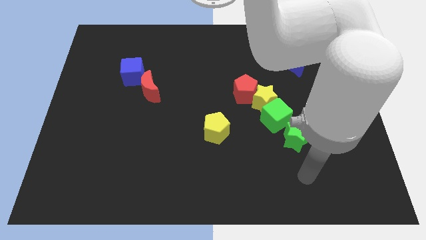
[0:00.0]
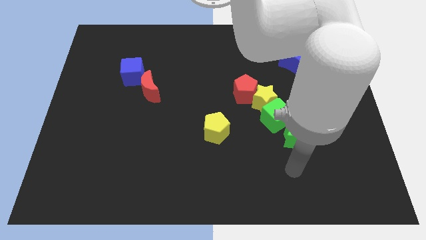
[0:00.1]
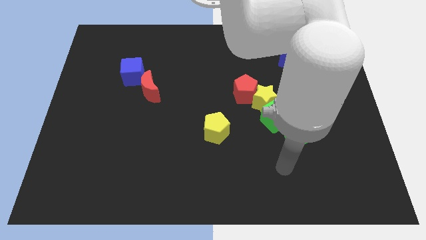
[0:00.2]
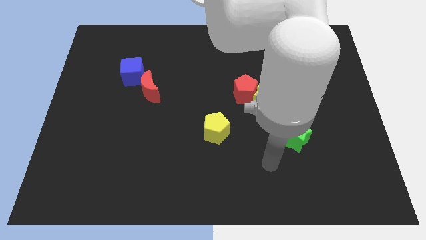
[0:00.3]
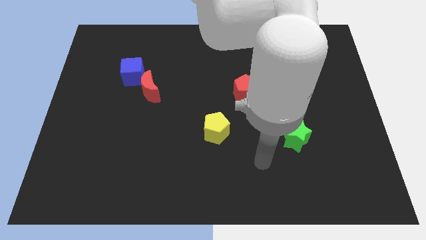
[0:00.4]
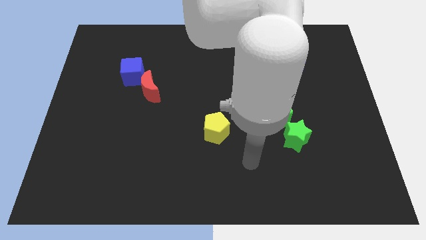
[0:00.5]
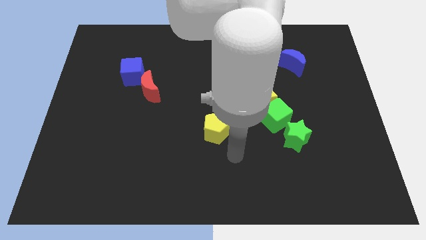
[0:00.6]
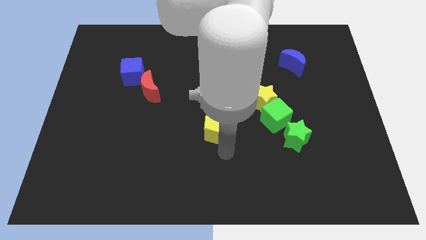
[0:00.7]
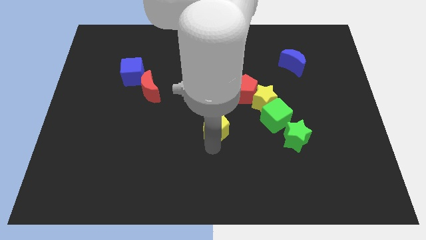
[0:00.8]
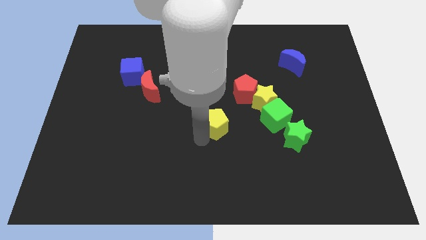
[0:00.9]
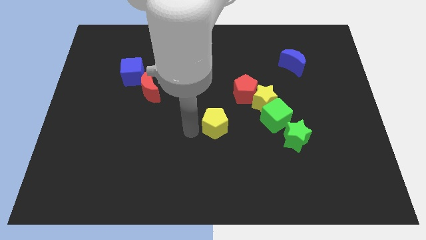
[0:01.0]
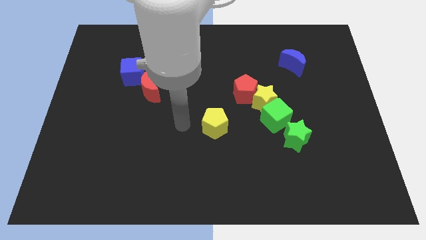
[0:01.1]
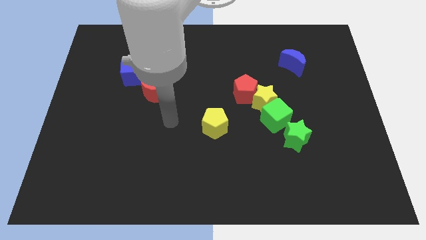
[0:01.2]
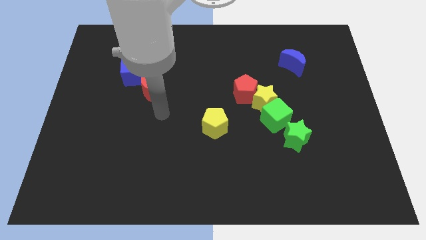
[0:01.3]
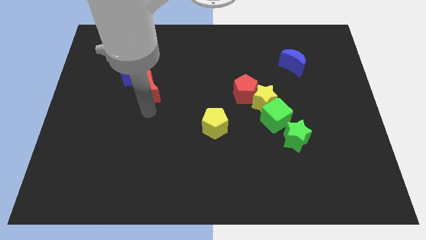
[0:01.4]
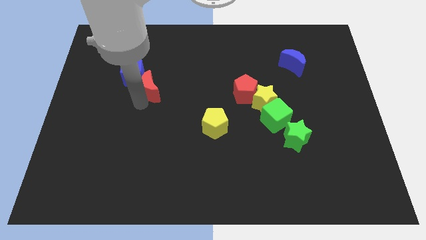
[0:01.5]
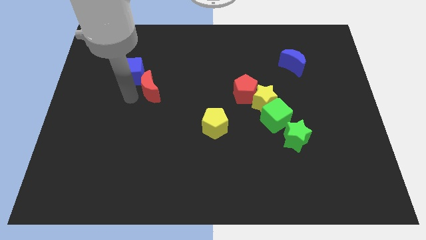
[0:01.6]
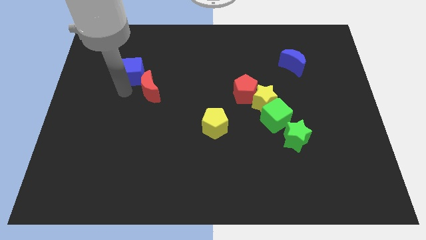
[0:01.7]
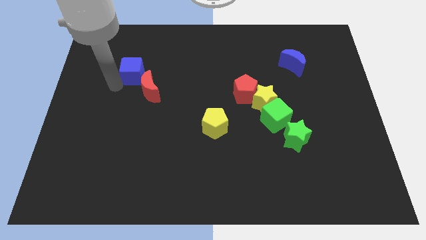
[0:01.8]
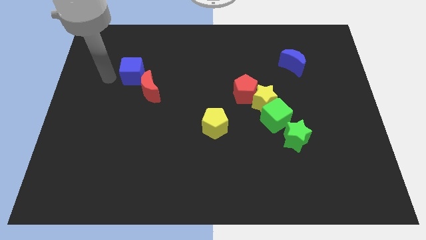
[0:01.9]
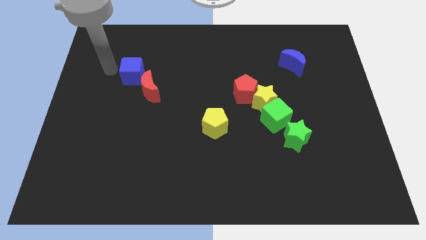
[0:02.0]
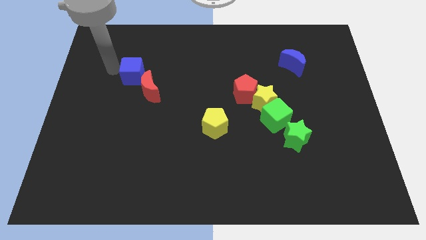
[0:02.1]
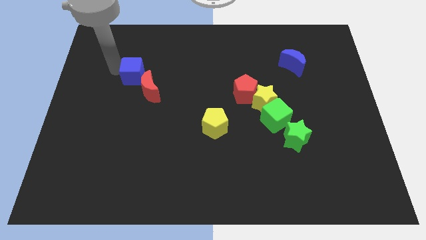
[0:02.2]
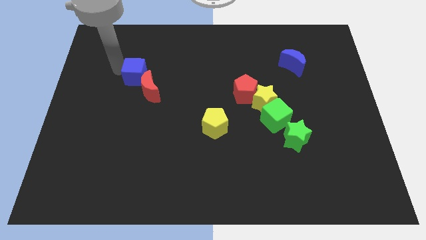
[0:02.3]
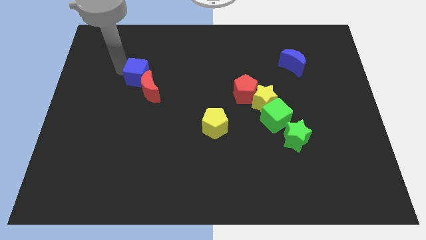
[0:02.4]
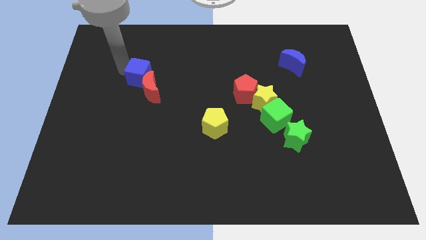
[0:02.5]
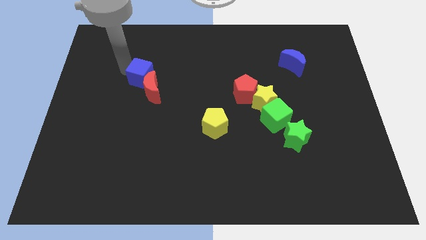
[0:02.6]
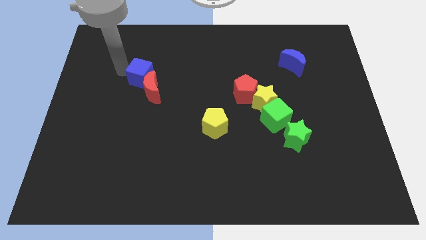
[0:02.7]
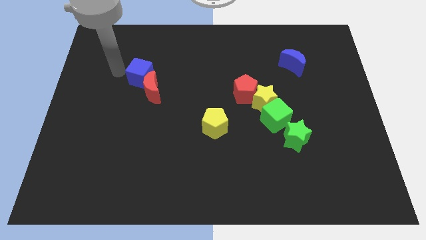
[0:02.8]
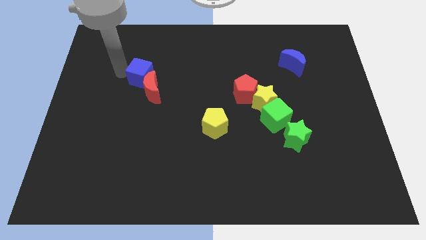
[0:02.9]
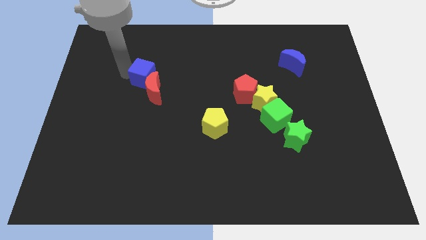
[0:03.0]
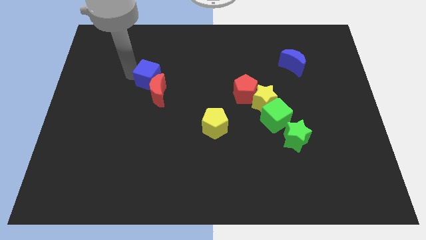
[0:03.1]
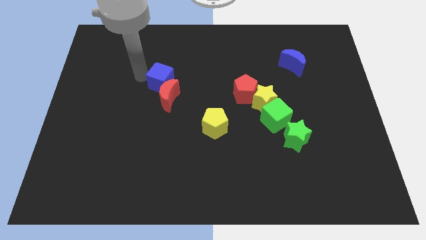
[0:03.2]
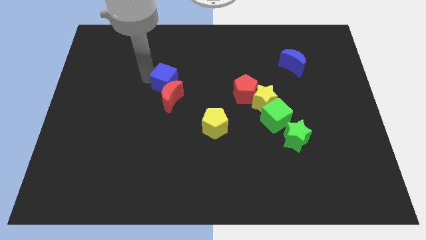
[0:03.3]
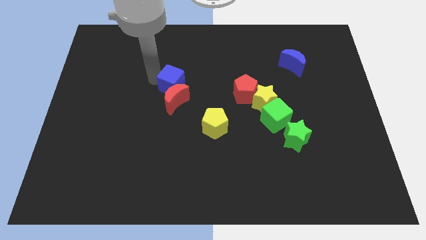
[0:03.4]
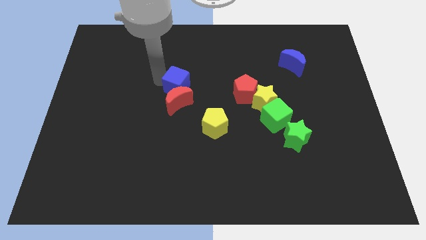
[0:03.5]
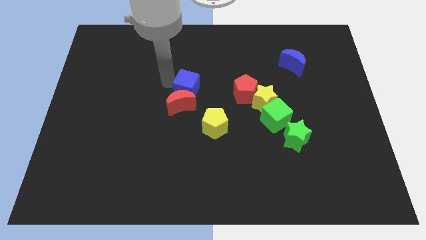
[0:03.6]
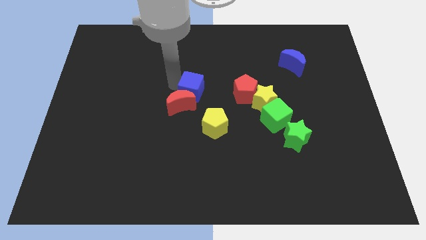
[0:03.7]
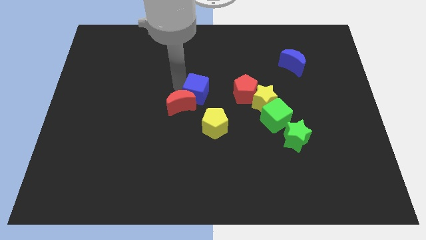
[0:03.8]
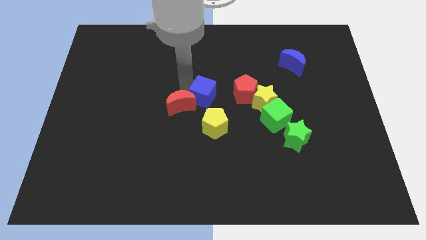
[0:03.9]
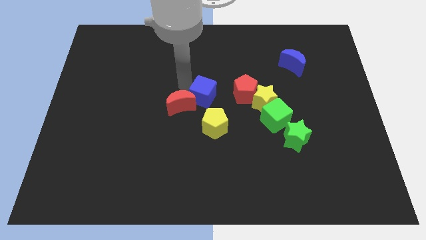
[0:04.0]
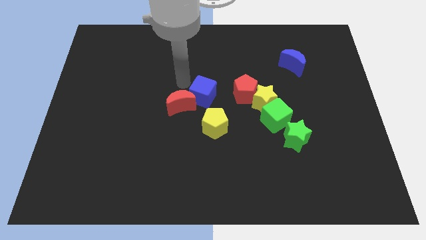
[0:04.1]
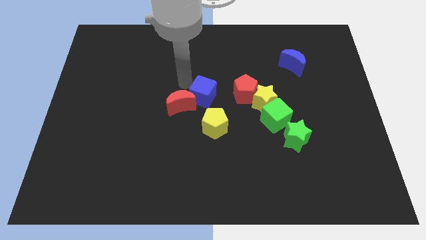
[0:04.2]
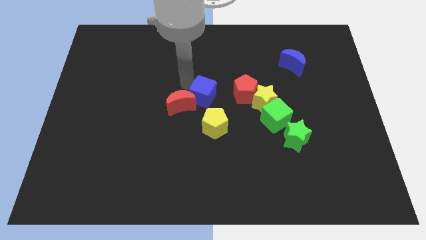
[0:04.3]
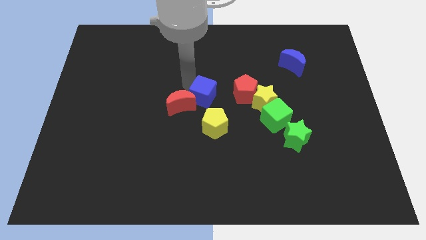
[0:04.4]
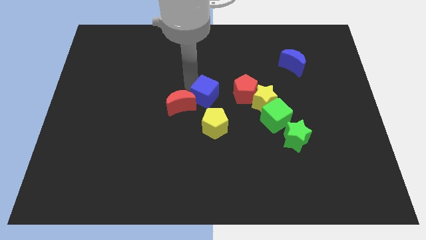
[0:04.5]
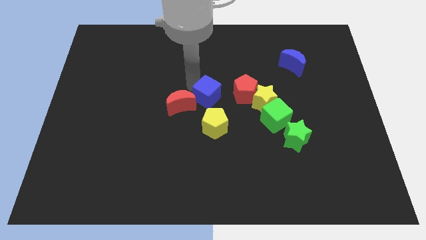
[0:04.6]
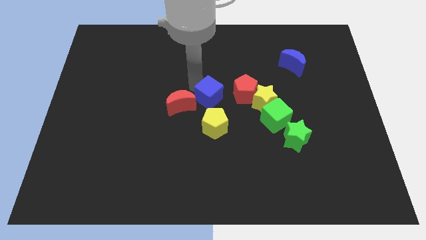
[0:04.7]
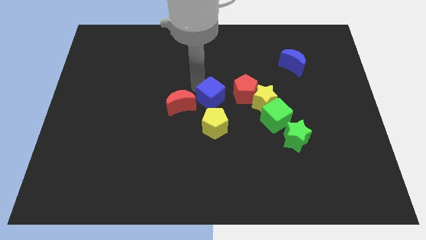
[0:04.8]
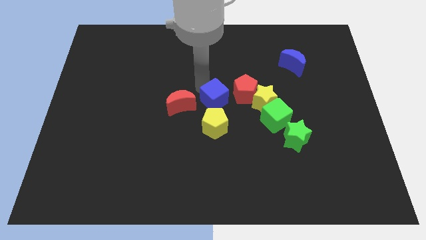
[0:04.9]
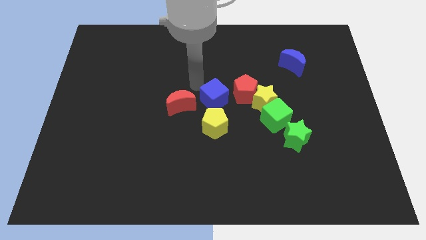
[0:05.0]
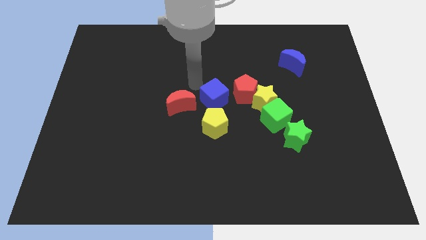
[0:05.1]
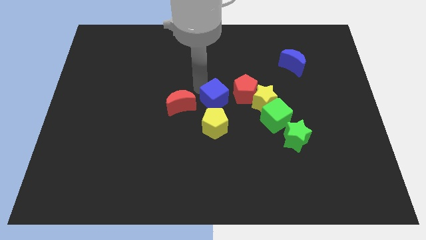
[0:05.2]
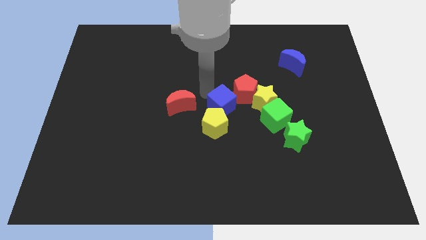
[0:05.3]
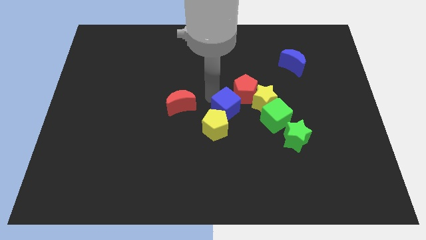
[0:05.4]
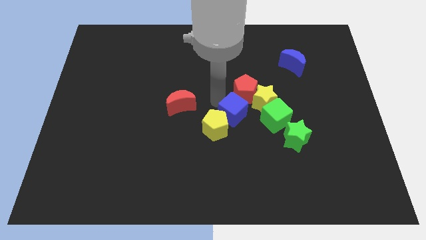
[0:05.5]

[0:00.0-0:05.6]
slide the blue cube diagonally down and to the left of the yellow star

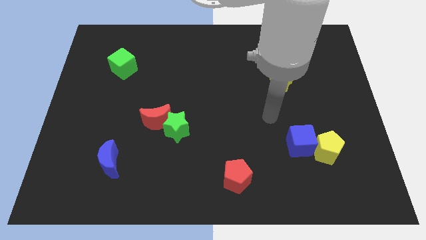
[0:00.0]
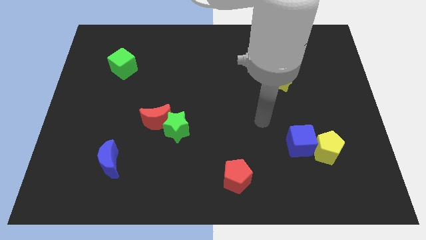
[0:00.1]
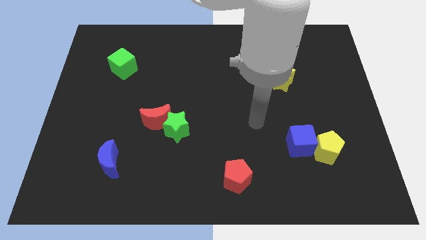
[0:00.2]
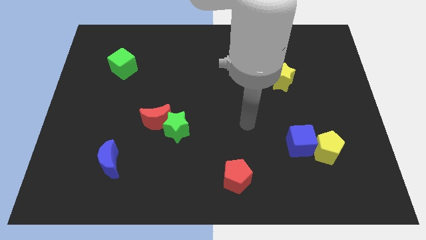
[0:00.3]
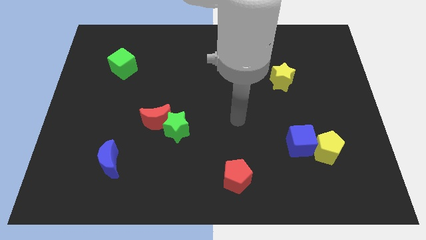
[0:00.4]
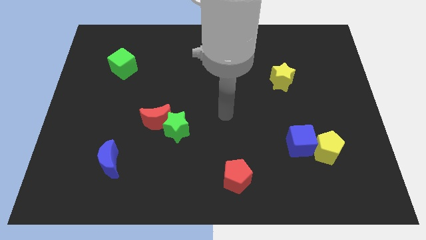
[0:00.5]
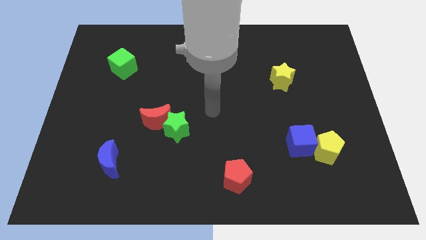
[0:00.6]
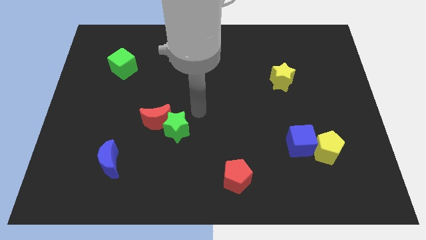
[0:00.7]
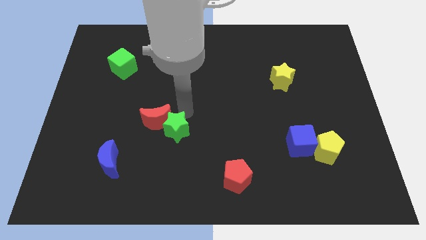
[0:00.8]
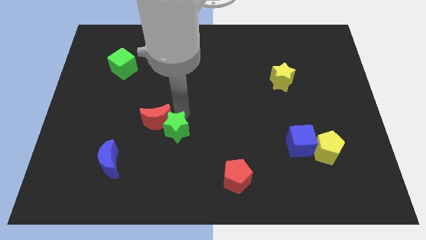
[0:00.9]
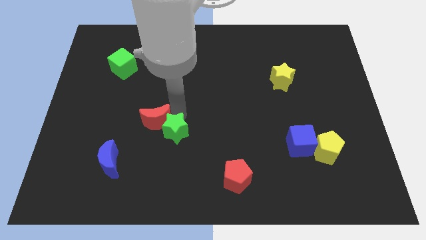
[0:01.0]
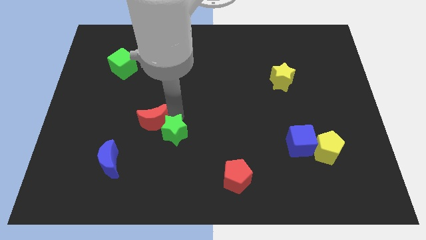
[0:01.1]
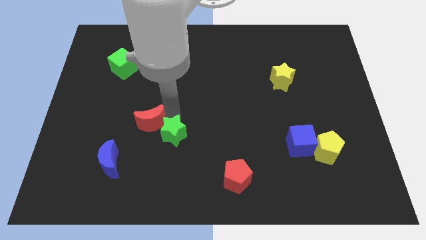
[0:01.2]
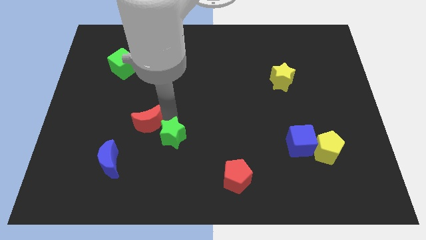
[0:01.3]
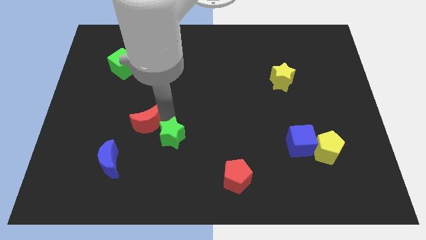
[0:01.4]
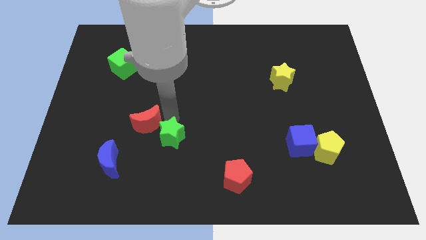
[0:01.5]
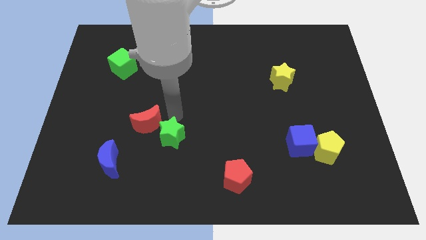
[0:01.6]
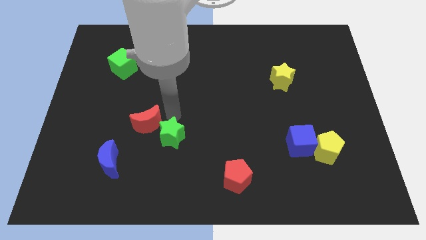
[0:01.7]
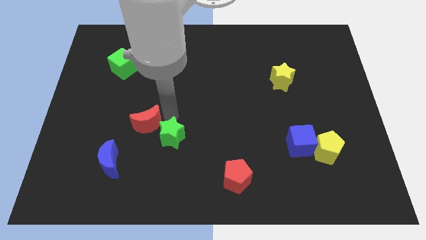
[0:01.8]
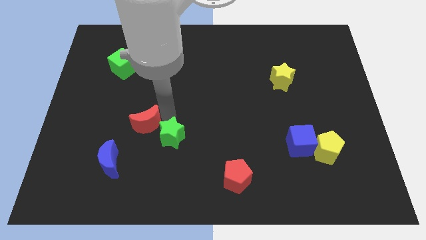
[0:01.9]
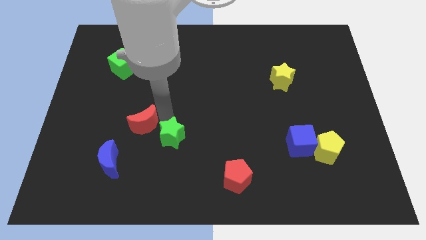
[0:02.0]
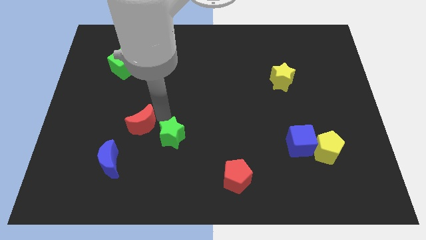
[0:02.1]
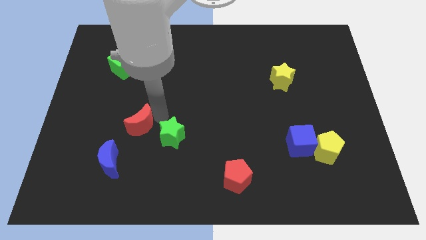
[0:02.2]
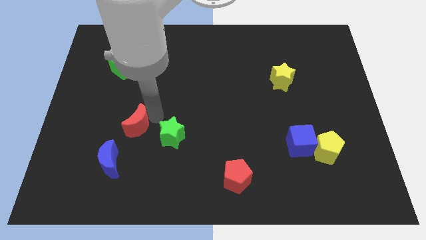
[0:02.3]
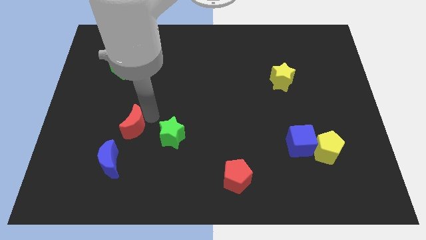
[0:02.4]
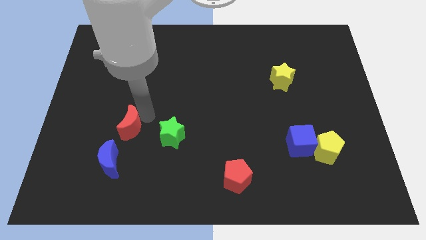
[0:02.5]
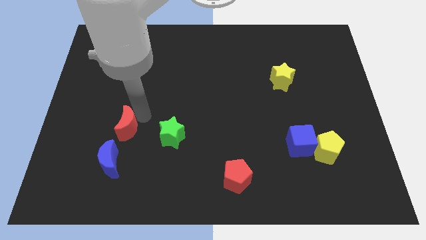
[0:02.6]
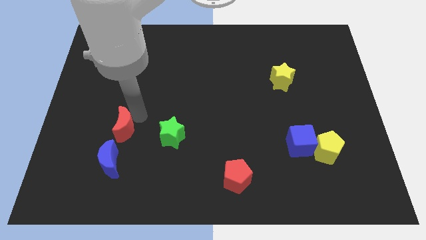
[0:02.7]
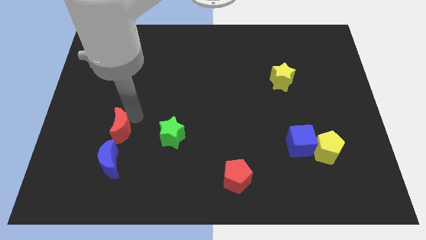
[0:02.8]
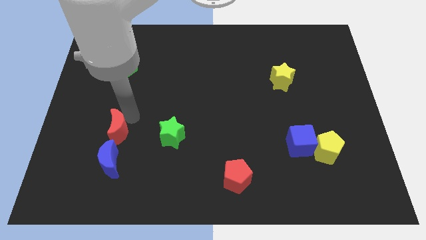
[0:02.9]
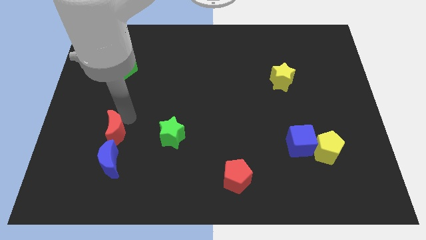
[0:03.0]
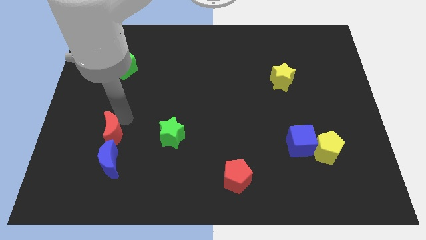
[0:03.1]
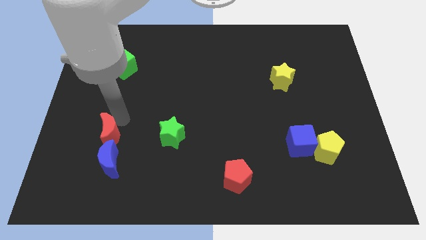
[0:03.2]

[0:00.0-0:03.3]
put the red moon to the top left of the blue moon
